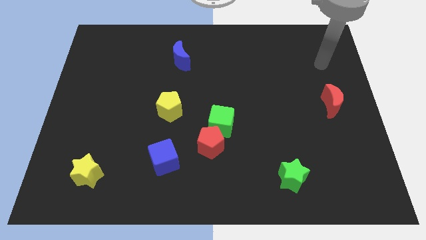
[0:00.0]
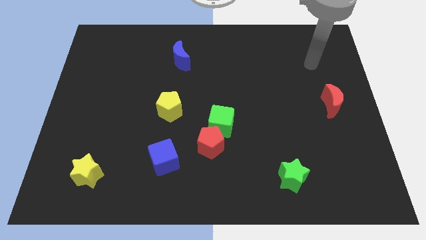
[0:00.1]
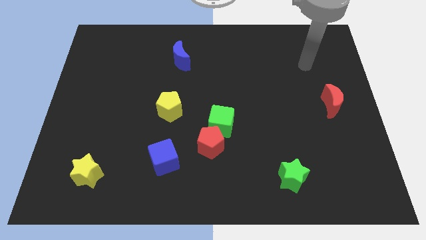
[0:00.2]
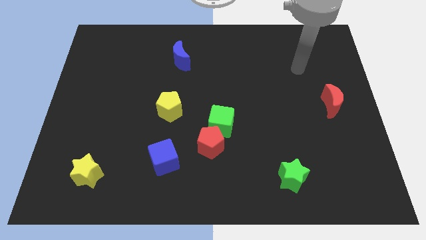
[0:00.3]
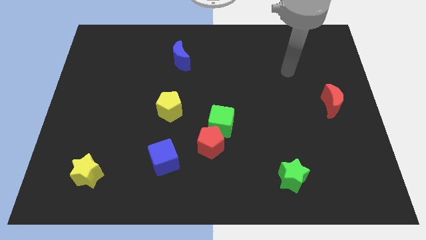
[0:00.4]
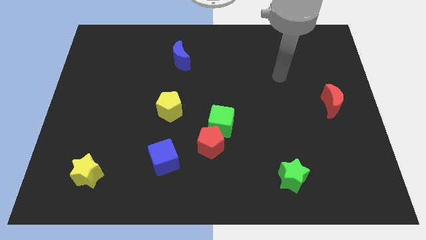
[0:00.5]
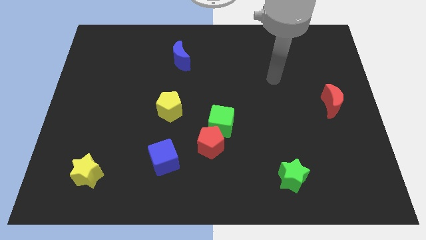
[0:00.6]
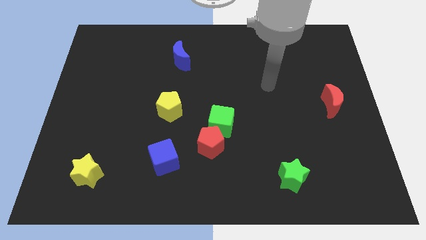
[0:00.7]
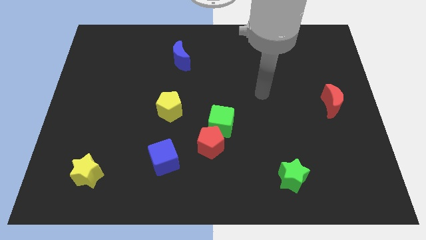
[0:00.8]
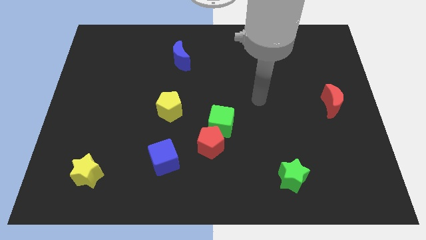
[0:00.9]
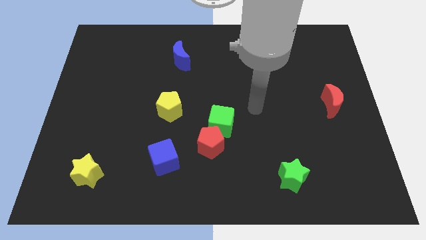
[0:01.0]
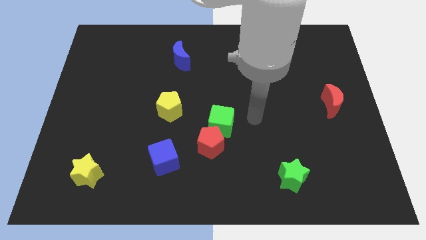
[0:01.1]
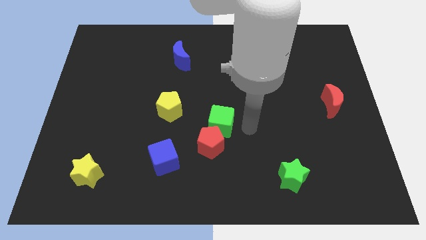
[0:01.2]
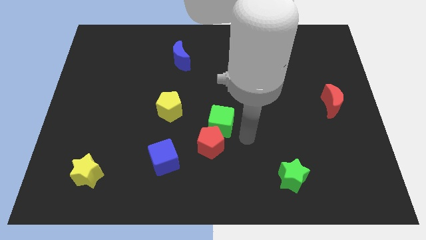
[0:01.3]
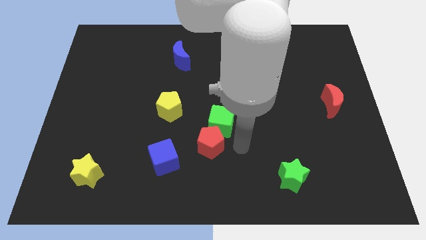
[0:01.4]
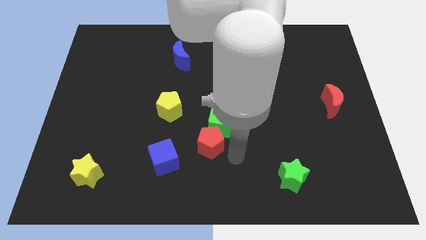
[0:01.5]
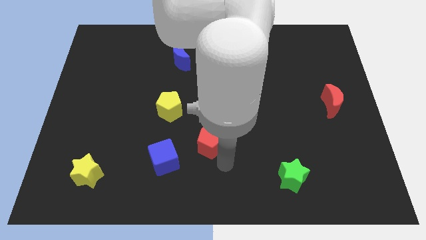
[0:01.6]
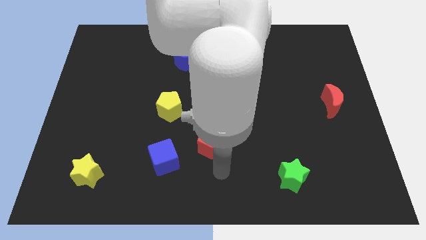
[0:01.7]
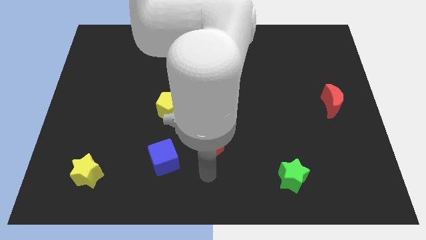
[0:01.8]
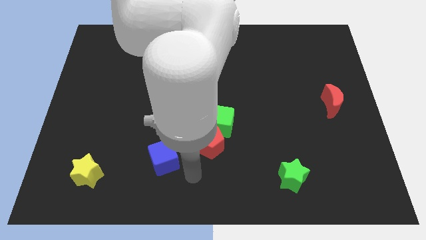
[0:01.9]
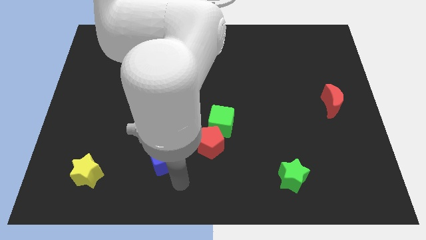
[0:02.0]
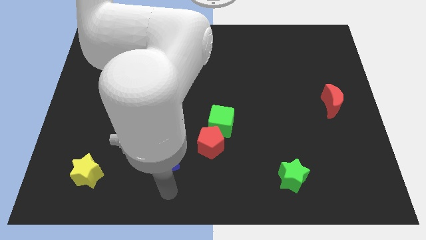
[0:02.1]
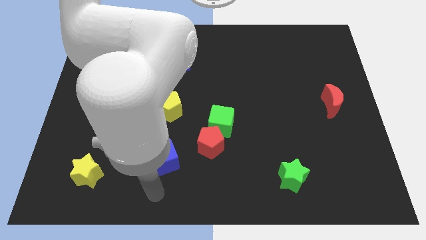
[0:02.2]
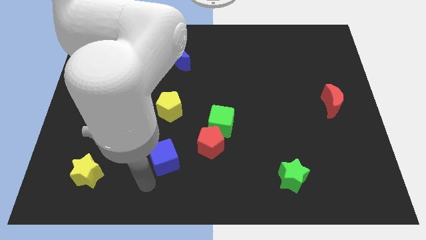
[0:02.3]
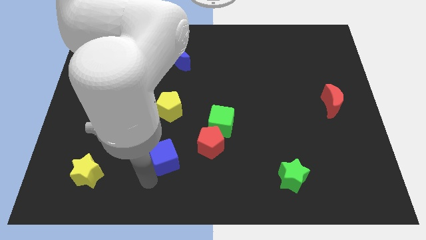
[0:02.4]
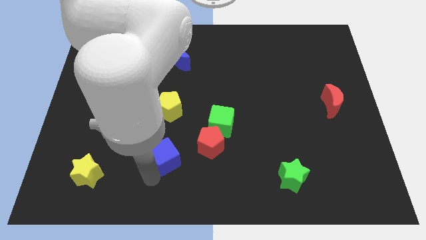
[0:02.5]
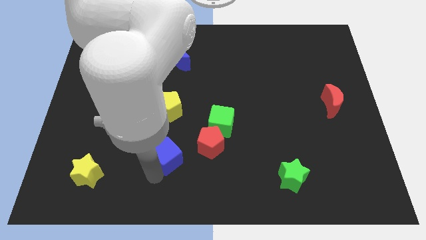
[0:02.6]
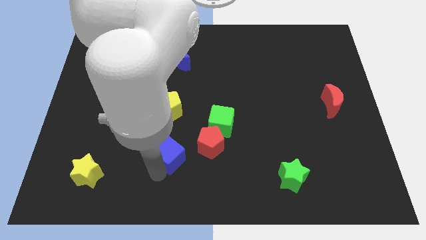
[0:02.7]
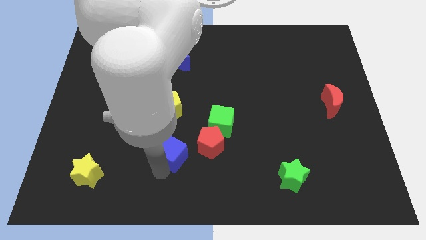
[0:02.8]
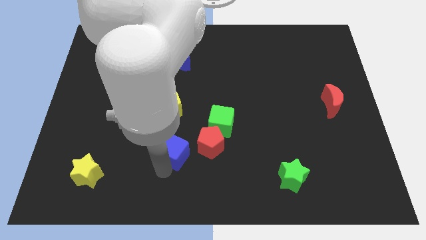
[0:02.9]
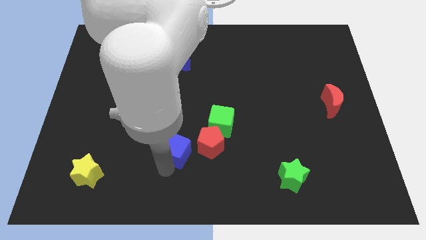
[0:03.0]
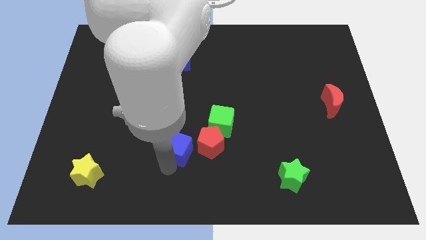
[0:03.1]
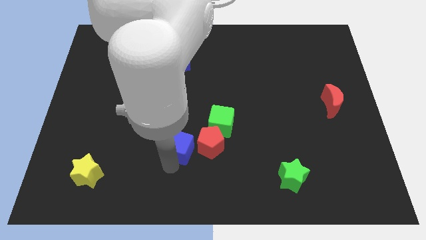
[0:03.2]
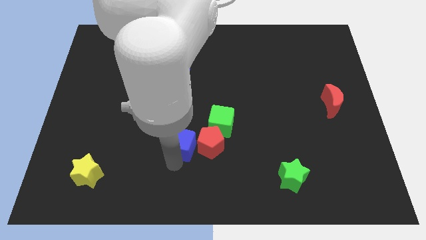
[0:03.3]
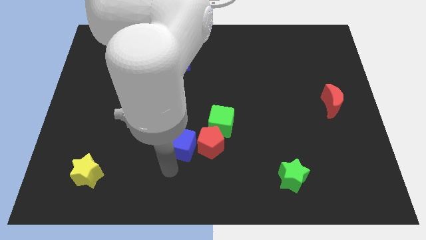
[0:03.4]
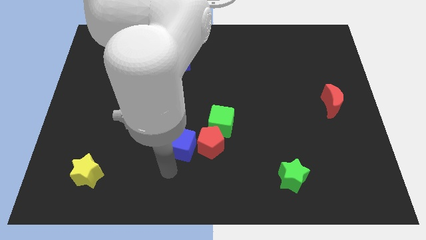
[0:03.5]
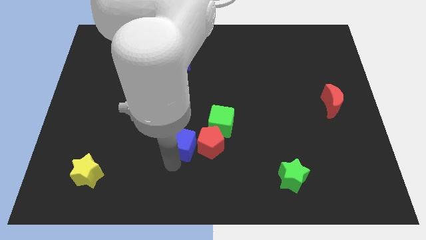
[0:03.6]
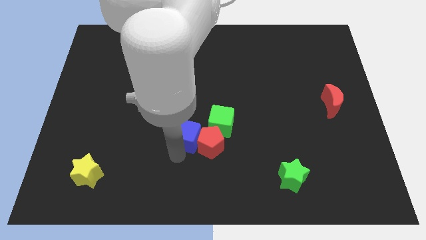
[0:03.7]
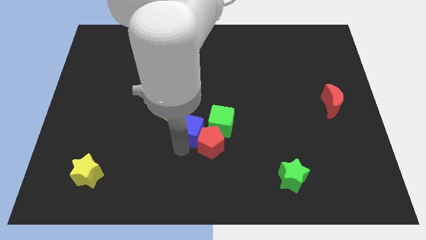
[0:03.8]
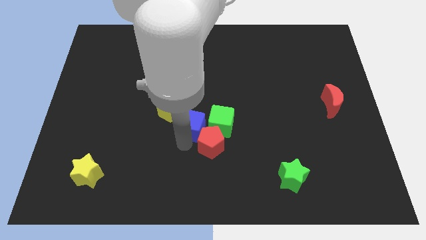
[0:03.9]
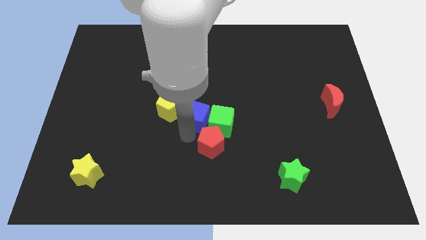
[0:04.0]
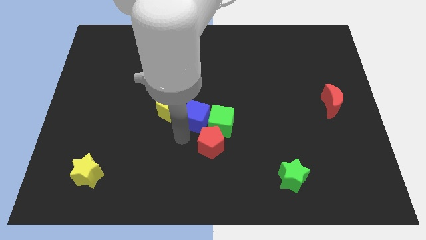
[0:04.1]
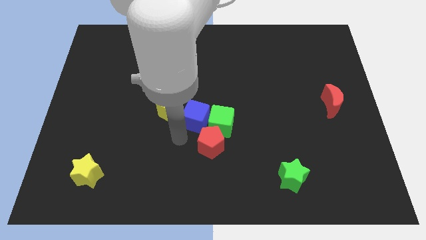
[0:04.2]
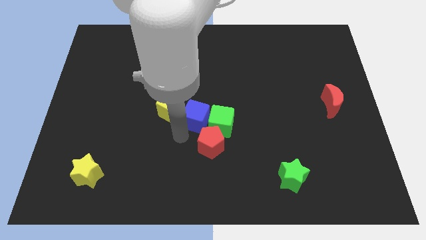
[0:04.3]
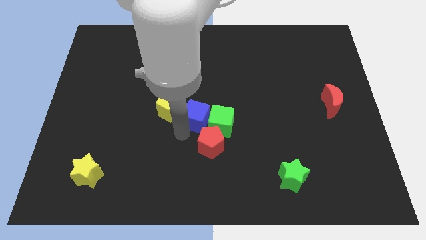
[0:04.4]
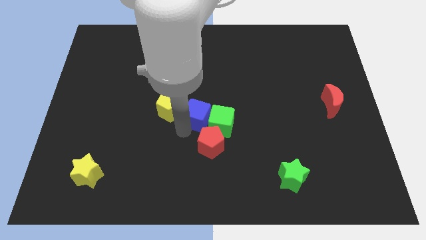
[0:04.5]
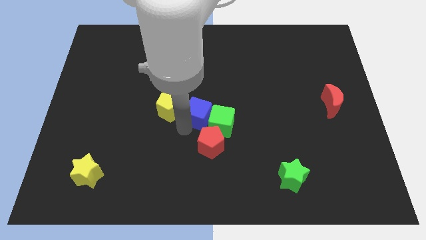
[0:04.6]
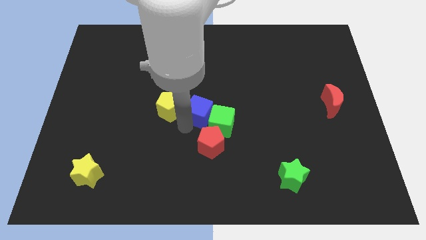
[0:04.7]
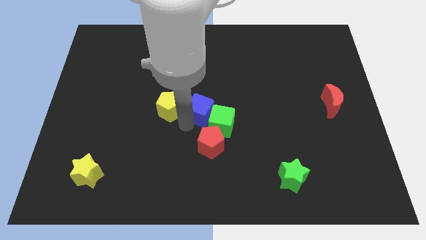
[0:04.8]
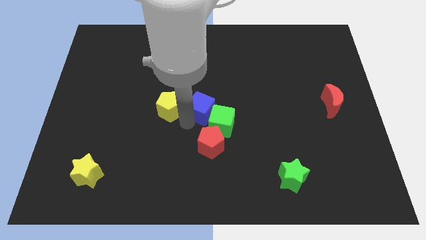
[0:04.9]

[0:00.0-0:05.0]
slide the blue cube above the green cube

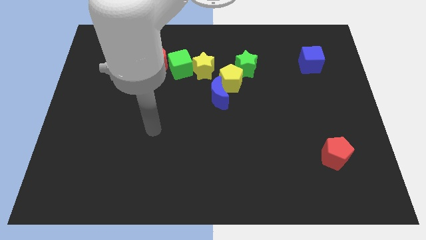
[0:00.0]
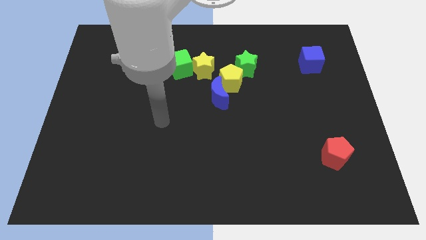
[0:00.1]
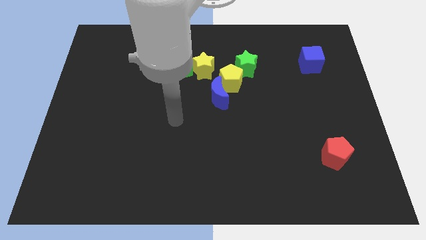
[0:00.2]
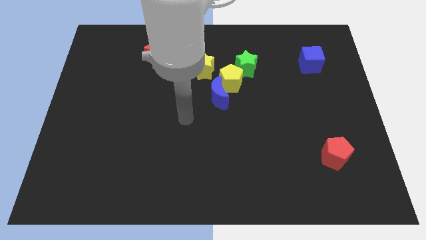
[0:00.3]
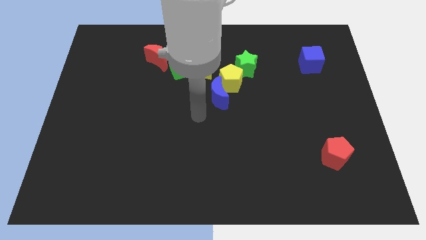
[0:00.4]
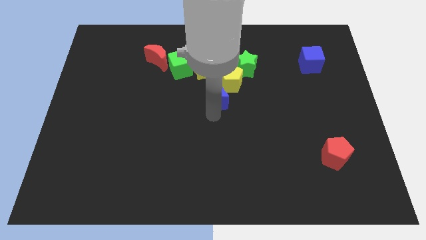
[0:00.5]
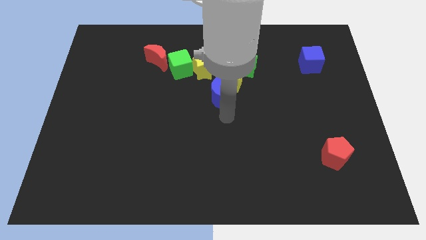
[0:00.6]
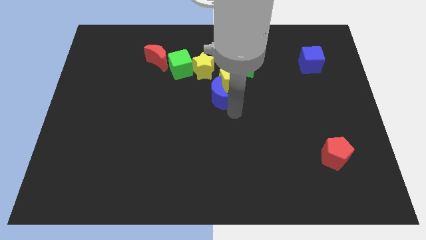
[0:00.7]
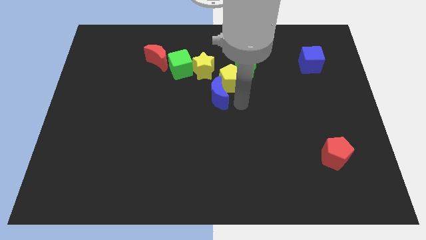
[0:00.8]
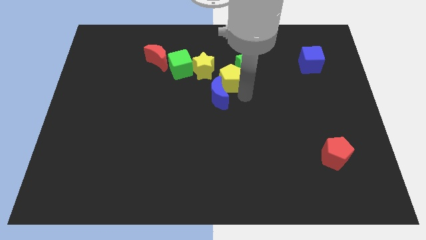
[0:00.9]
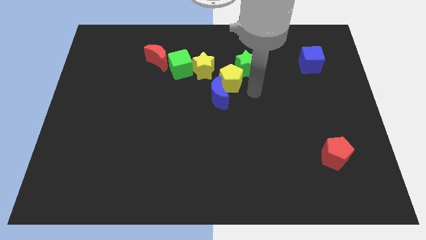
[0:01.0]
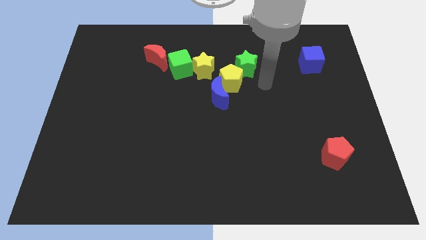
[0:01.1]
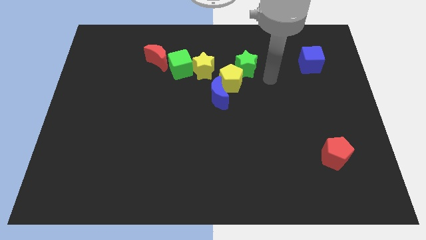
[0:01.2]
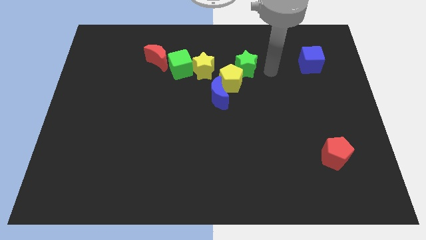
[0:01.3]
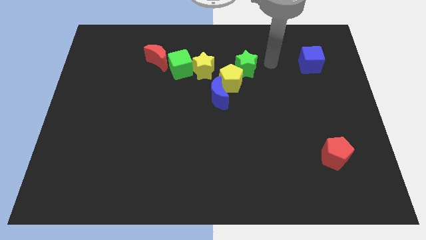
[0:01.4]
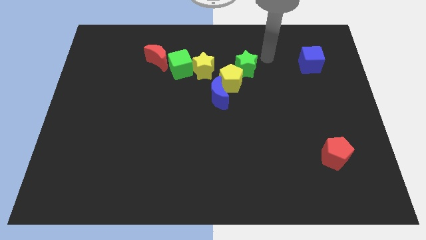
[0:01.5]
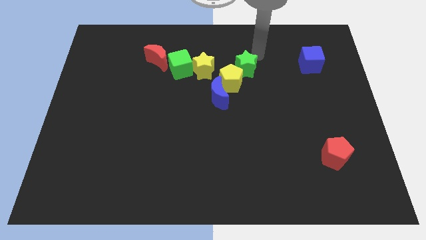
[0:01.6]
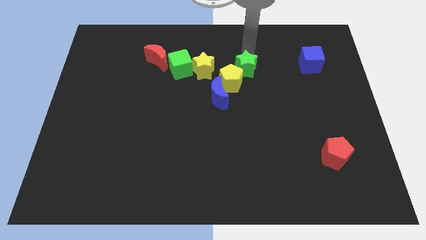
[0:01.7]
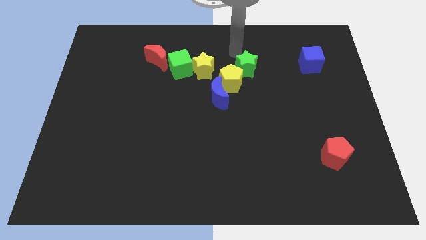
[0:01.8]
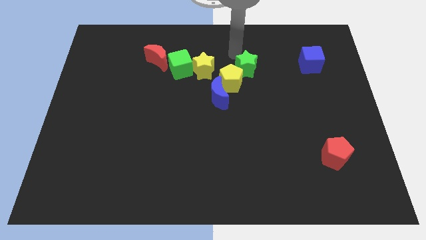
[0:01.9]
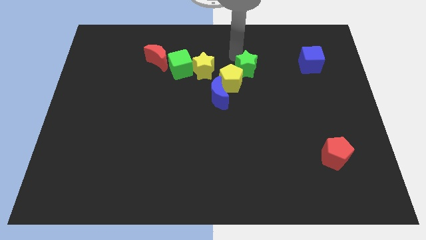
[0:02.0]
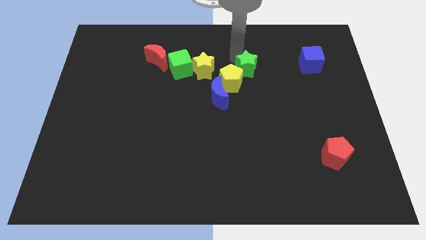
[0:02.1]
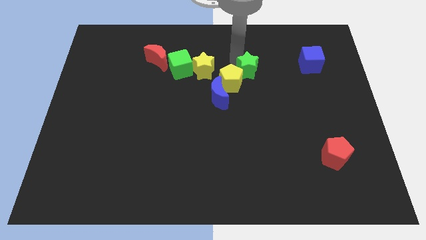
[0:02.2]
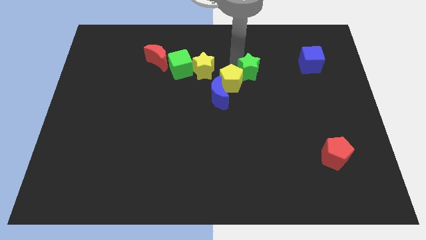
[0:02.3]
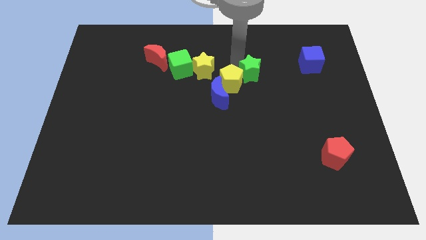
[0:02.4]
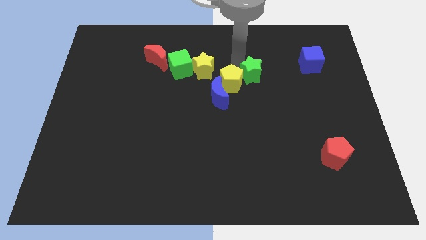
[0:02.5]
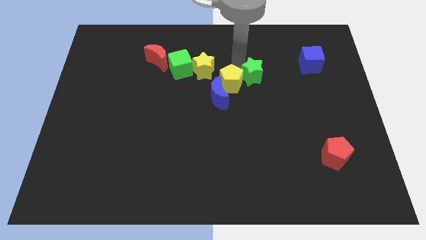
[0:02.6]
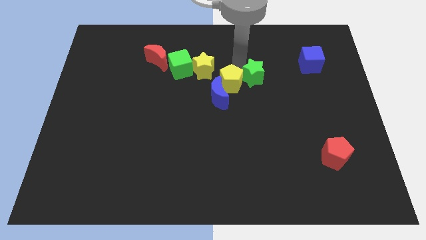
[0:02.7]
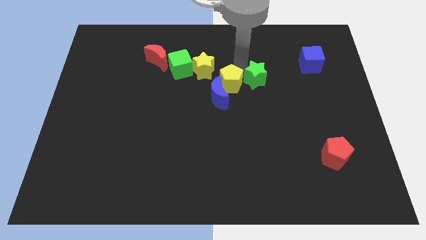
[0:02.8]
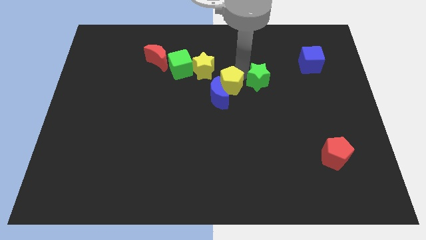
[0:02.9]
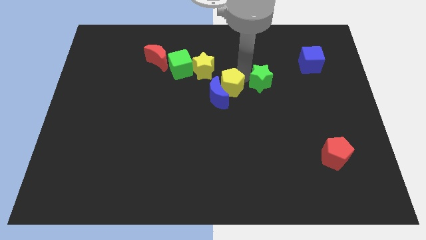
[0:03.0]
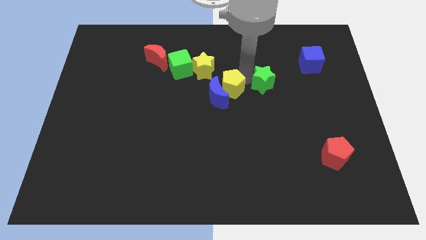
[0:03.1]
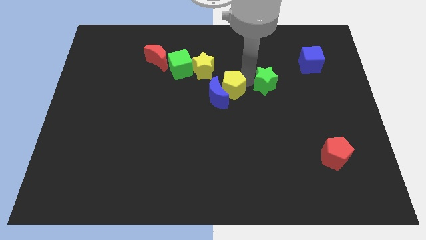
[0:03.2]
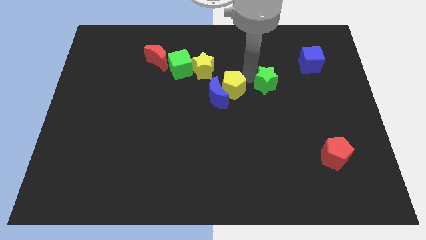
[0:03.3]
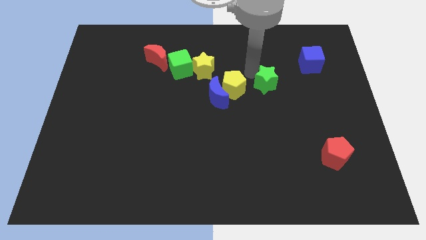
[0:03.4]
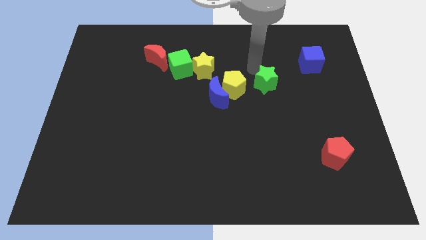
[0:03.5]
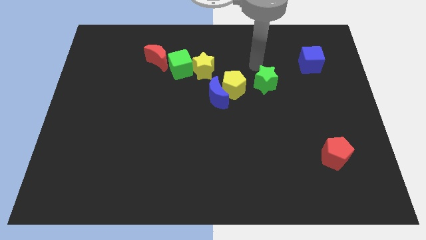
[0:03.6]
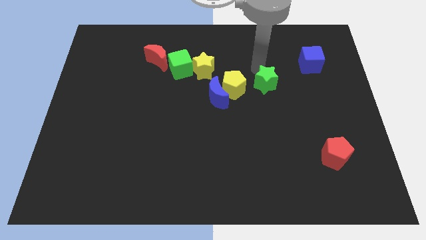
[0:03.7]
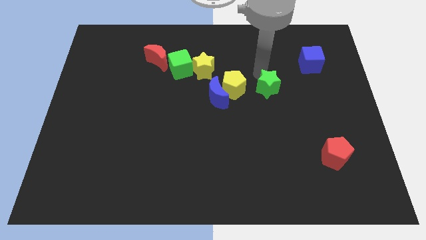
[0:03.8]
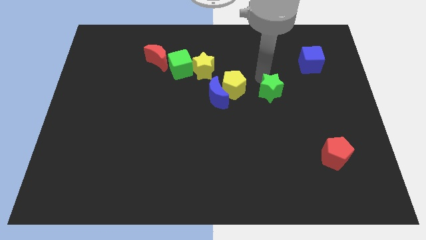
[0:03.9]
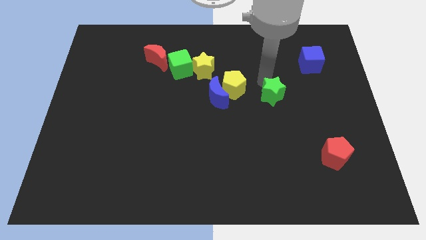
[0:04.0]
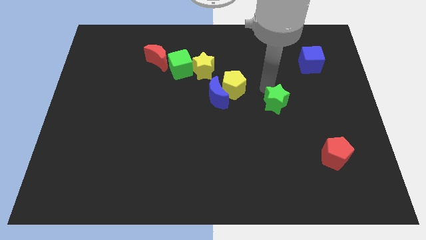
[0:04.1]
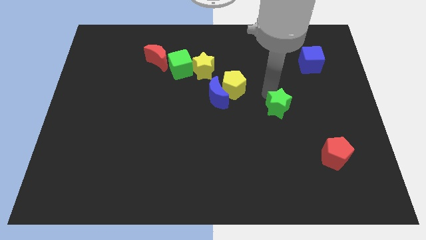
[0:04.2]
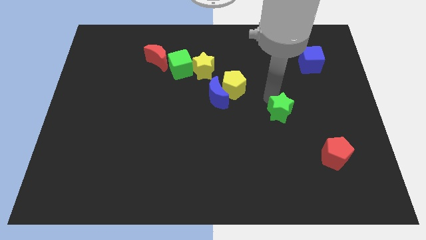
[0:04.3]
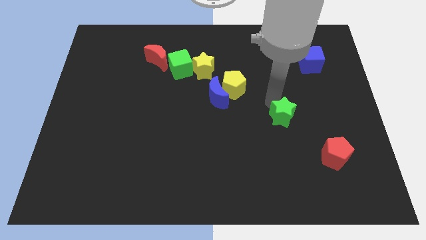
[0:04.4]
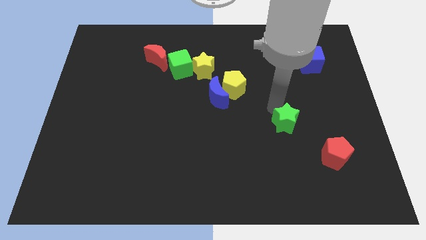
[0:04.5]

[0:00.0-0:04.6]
slide the green star to the top left side of the red pentagon
